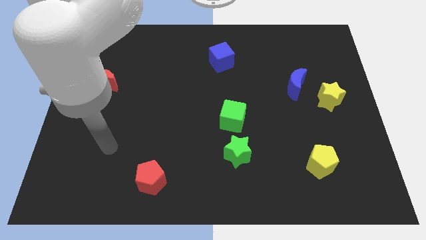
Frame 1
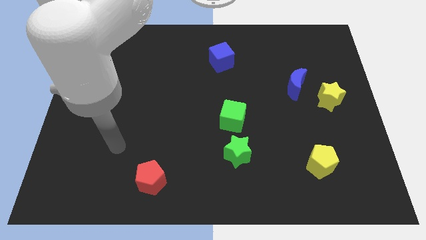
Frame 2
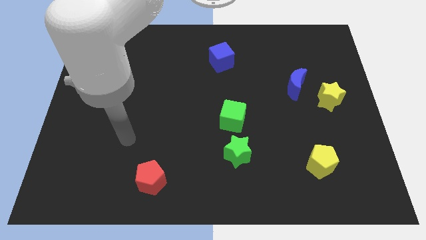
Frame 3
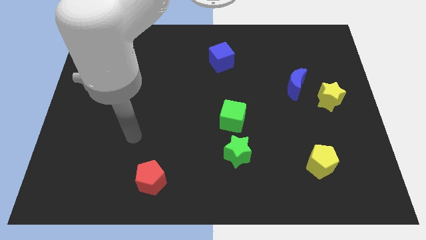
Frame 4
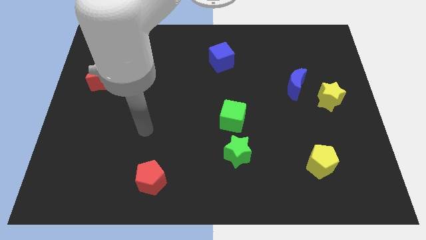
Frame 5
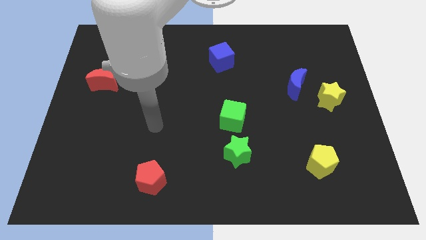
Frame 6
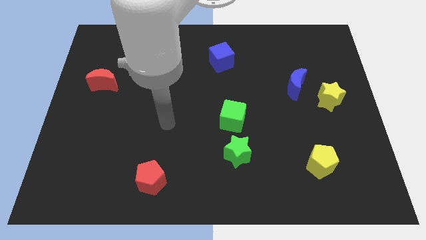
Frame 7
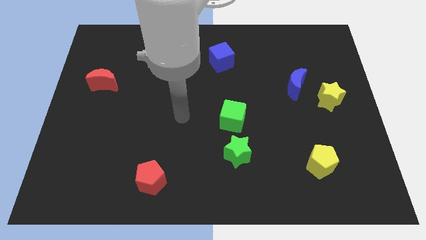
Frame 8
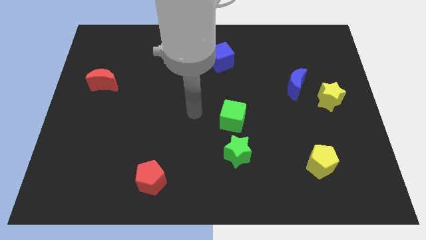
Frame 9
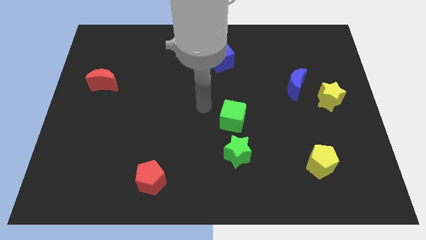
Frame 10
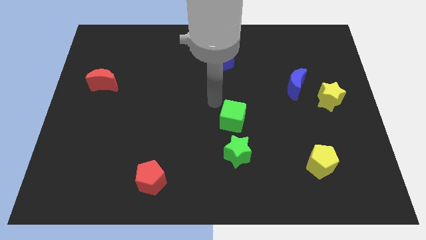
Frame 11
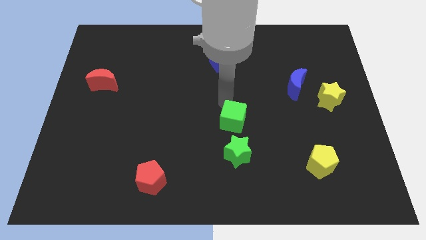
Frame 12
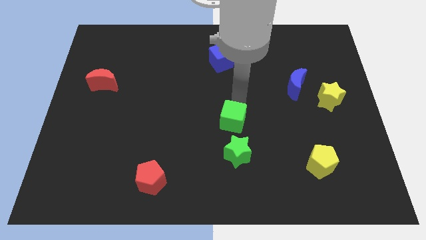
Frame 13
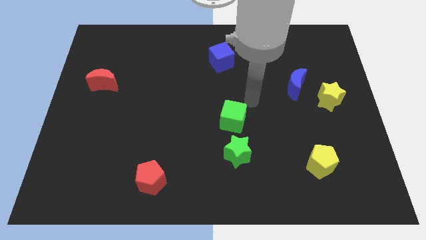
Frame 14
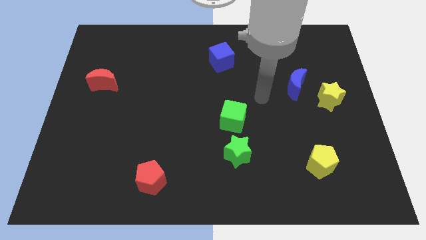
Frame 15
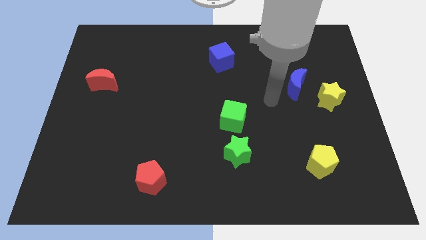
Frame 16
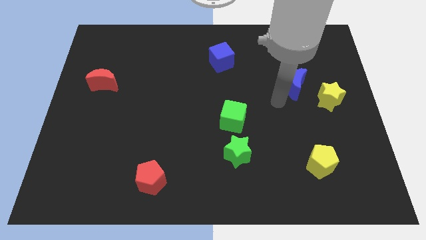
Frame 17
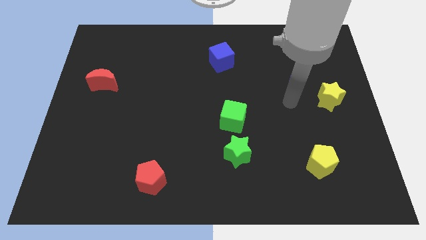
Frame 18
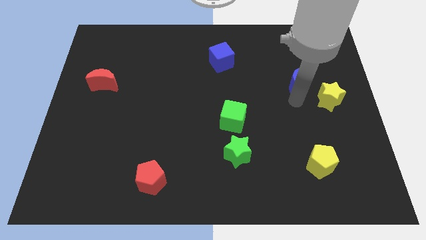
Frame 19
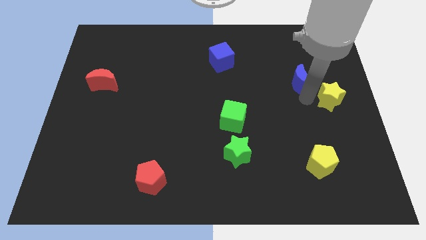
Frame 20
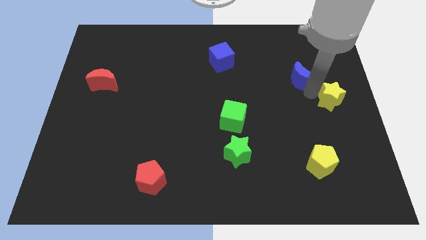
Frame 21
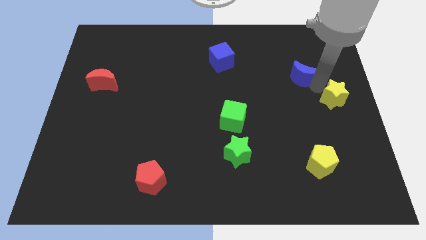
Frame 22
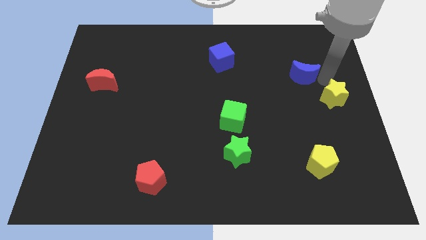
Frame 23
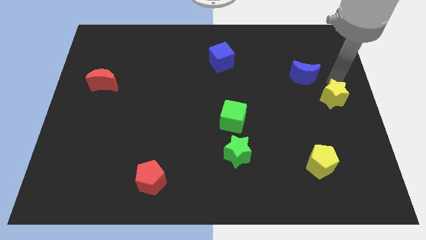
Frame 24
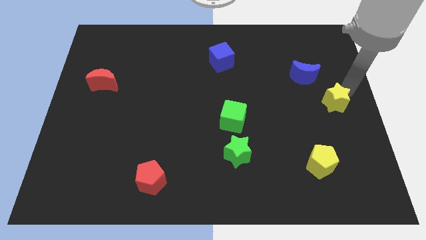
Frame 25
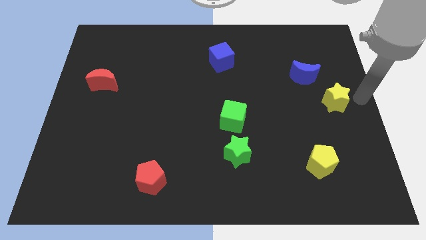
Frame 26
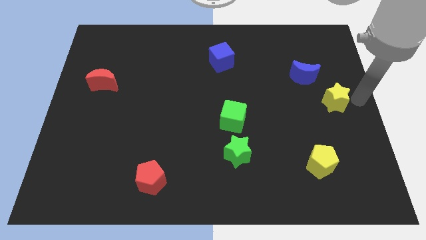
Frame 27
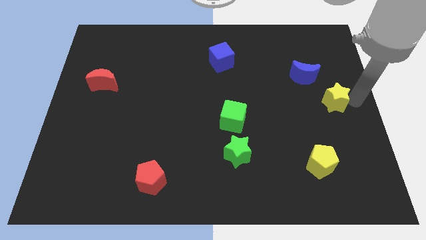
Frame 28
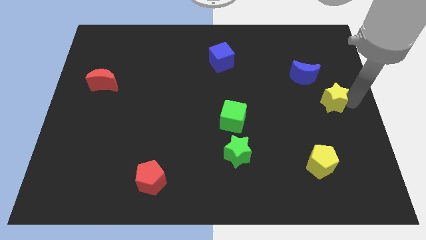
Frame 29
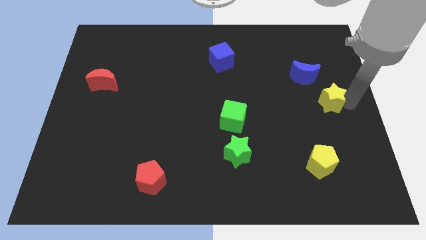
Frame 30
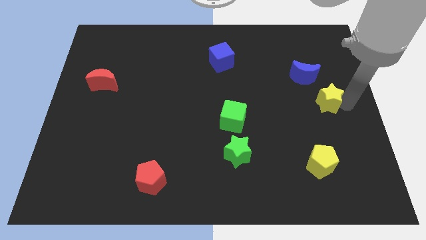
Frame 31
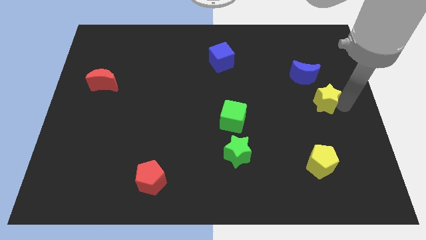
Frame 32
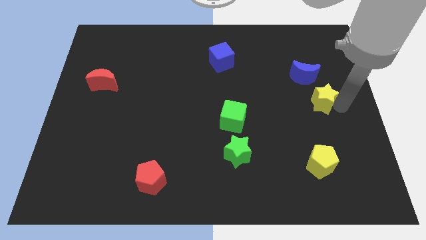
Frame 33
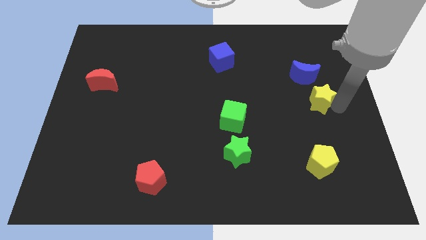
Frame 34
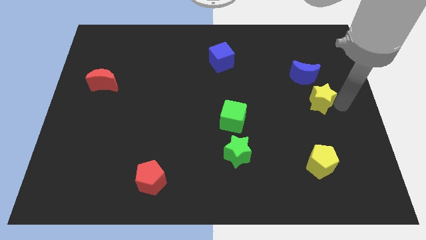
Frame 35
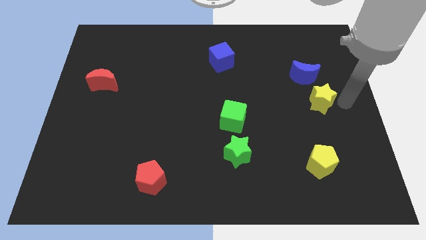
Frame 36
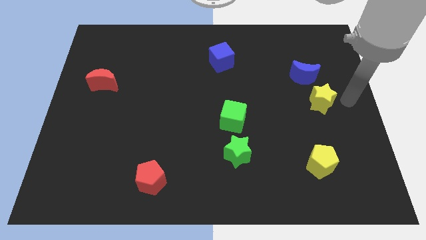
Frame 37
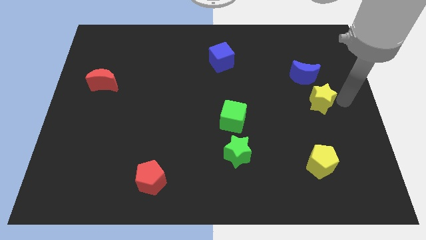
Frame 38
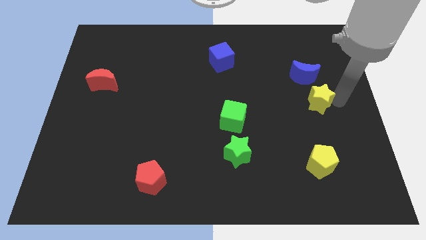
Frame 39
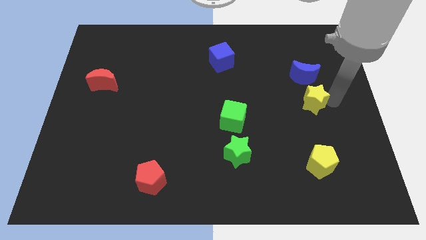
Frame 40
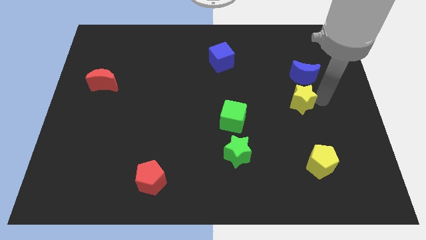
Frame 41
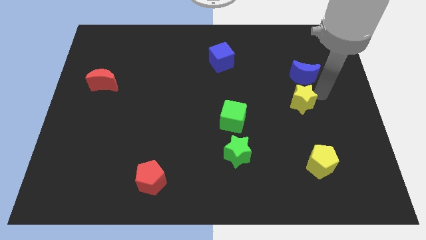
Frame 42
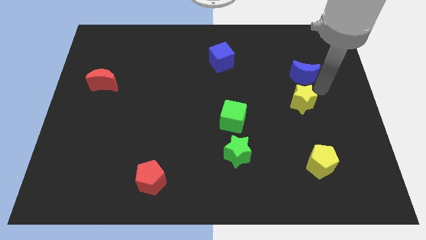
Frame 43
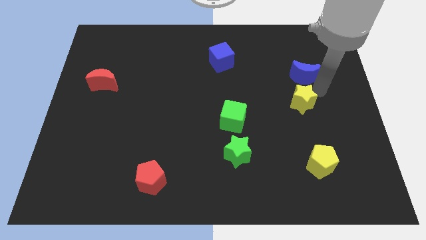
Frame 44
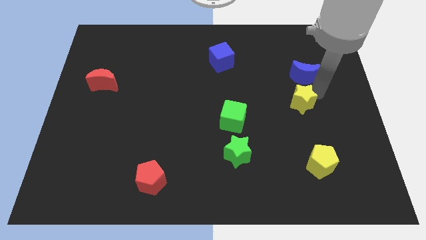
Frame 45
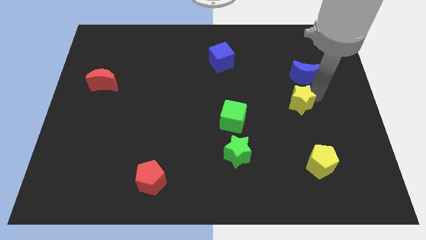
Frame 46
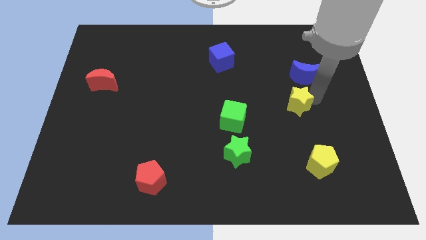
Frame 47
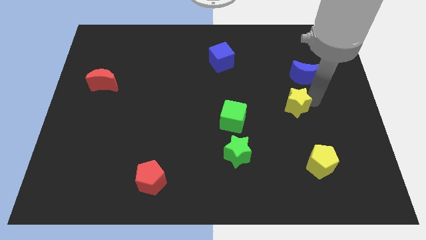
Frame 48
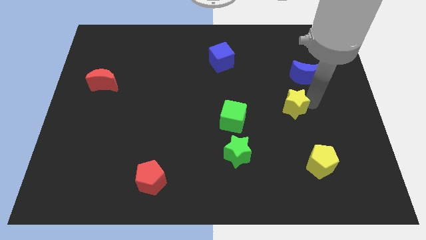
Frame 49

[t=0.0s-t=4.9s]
slide the yellow star to the right of the green cube

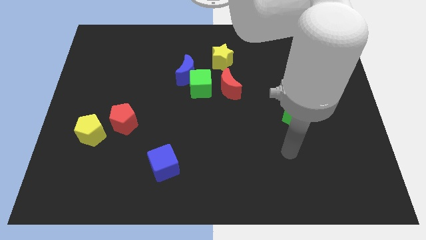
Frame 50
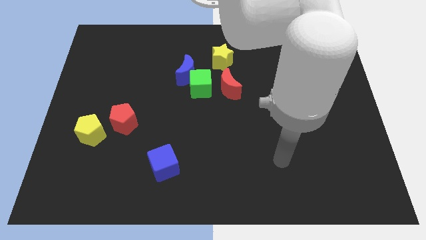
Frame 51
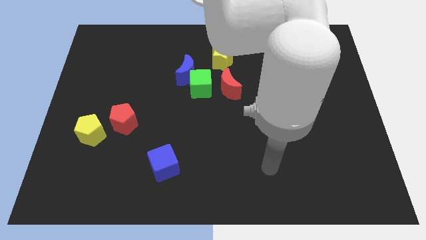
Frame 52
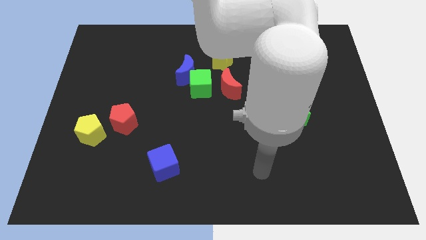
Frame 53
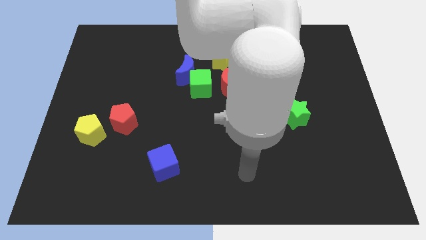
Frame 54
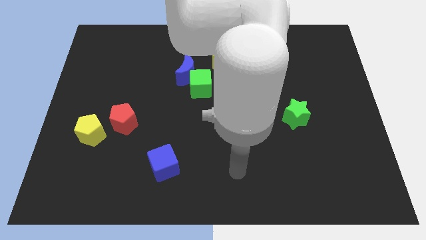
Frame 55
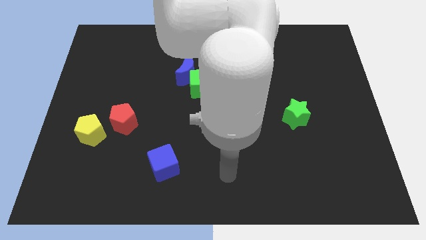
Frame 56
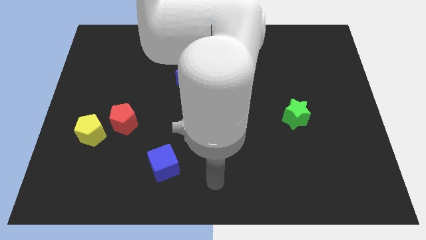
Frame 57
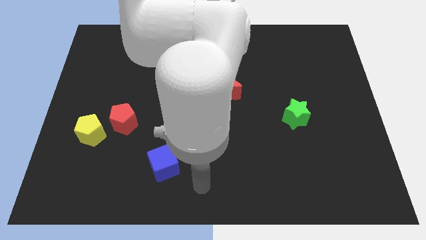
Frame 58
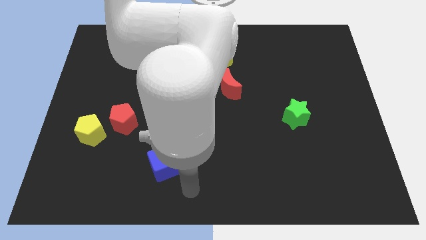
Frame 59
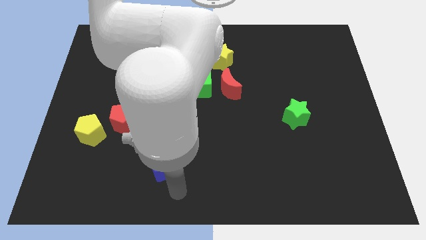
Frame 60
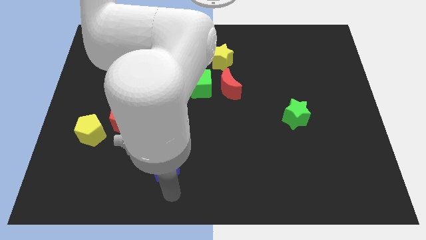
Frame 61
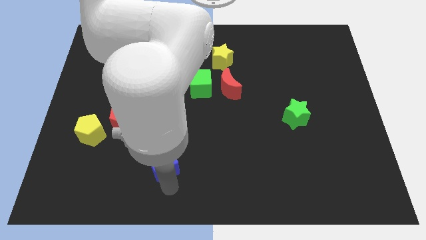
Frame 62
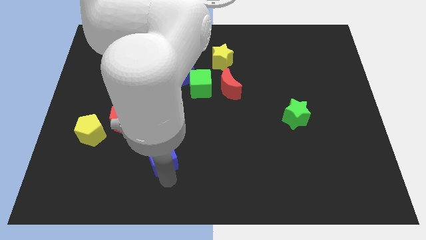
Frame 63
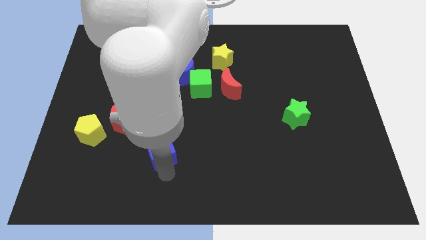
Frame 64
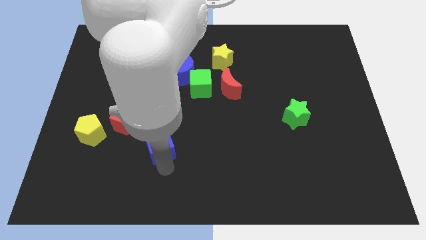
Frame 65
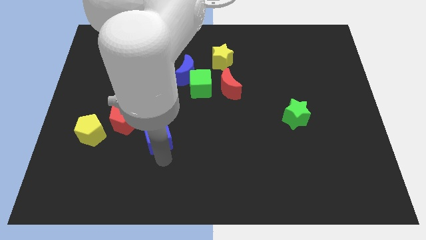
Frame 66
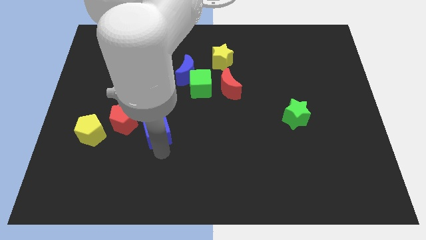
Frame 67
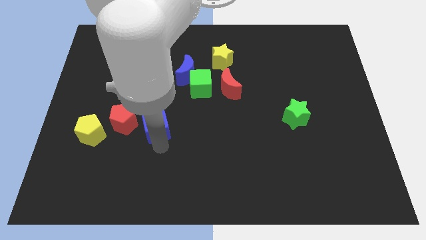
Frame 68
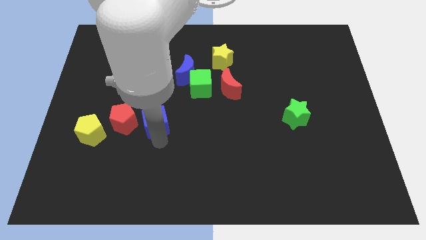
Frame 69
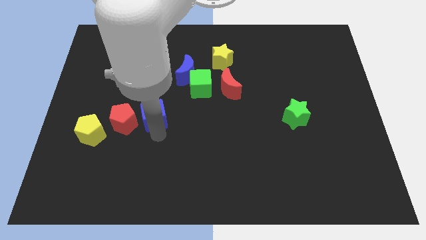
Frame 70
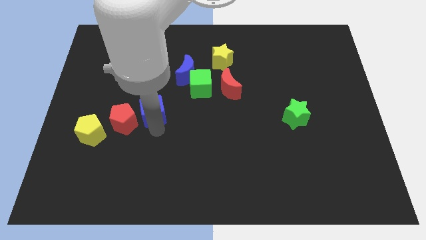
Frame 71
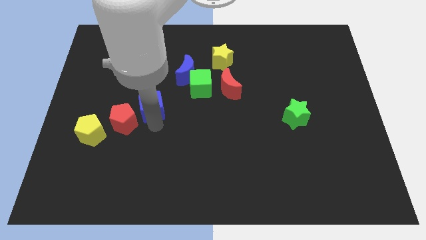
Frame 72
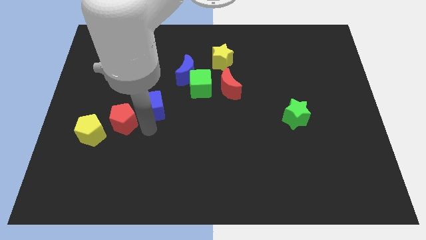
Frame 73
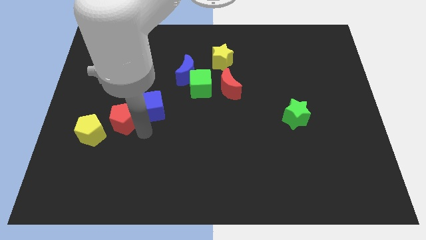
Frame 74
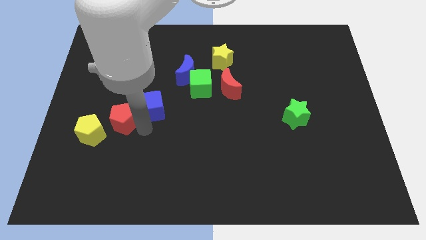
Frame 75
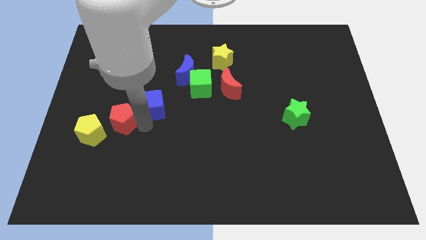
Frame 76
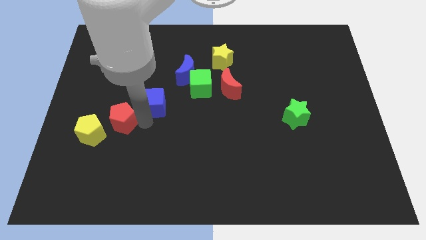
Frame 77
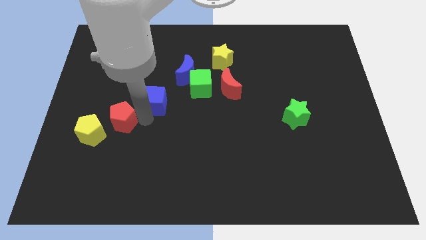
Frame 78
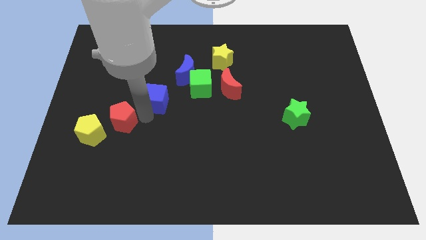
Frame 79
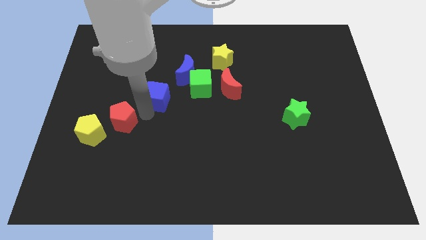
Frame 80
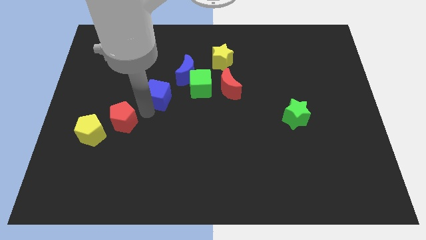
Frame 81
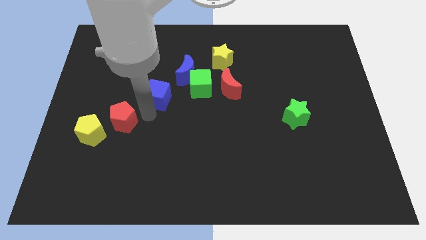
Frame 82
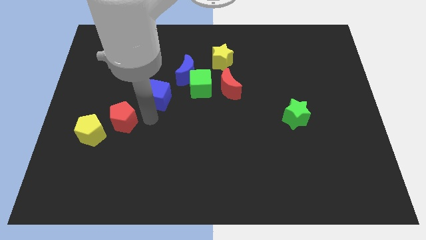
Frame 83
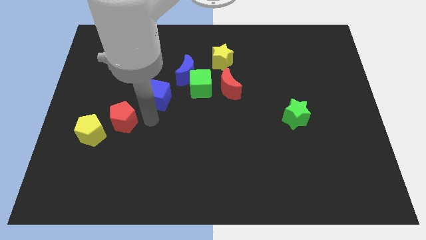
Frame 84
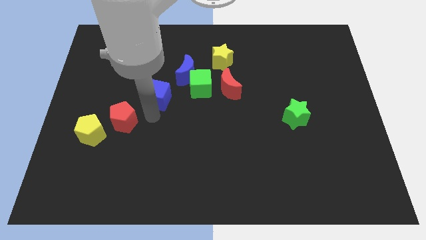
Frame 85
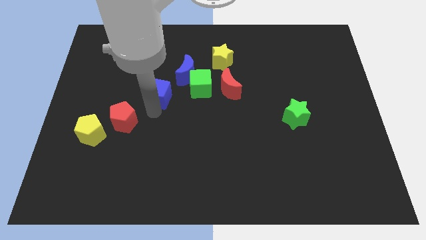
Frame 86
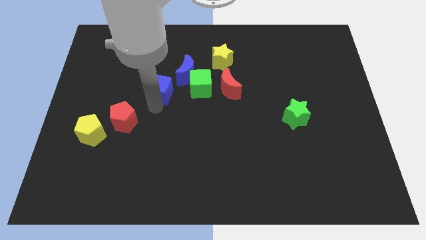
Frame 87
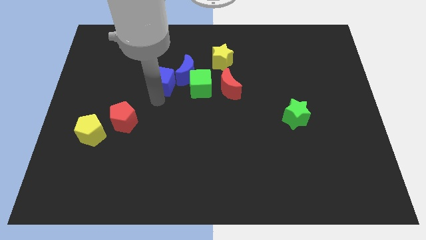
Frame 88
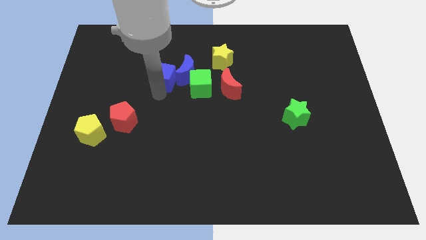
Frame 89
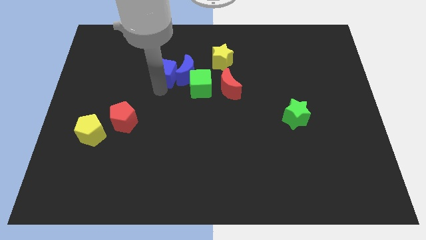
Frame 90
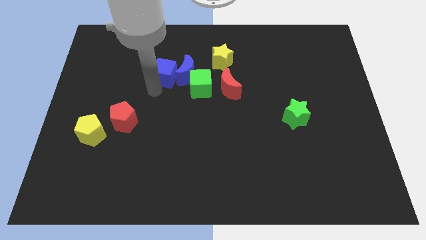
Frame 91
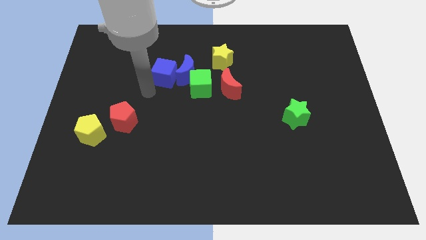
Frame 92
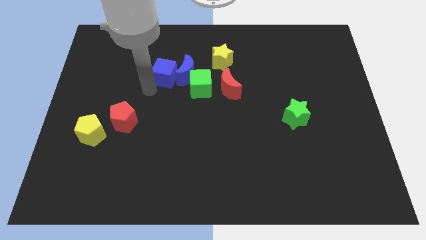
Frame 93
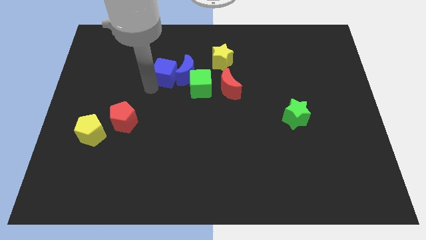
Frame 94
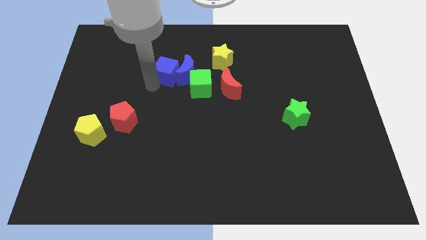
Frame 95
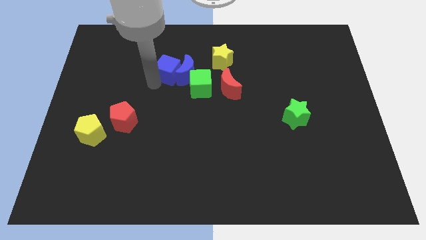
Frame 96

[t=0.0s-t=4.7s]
put the blue cube to the left of the yellow star
